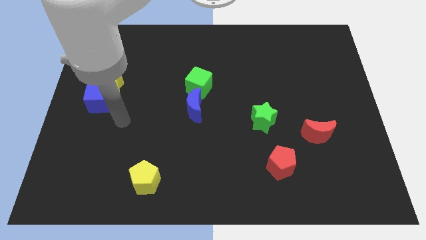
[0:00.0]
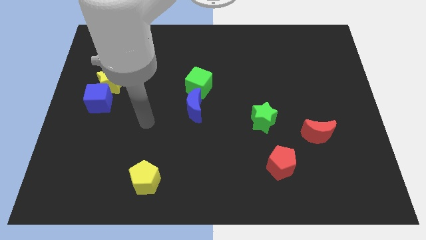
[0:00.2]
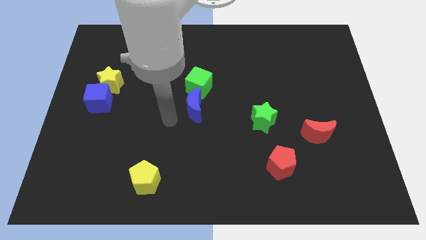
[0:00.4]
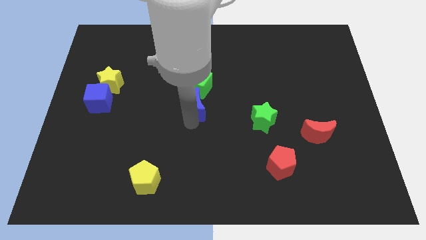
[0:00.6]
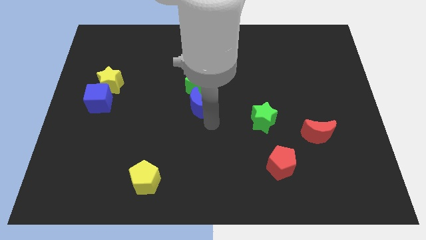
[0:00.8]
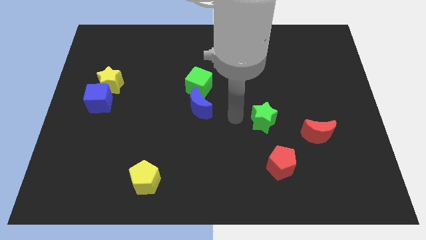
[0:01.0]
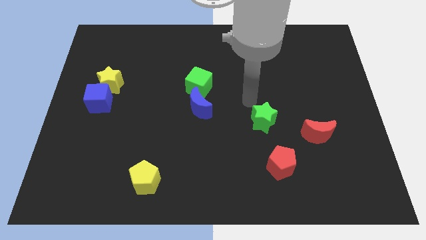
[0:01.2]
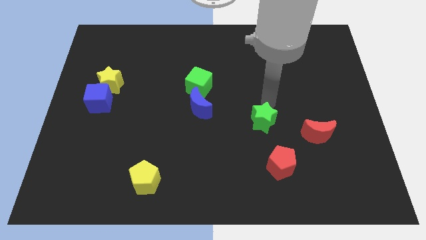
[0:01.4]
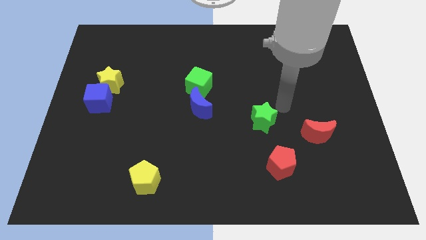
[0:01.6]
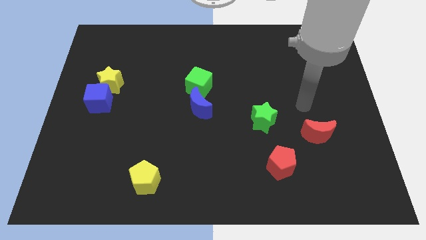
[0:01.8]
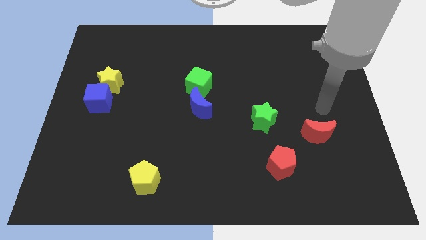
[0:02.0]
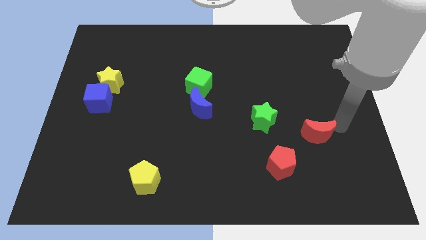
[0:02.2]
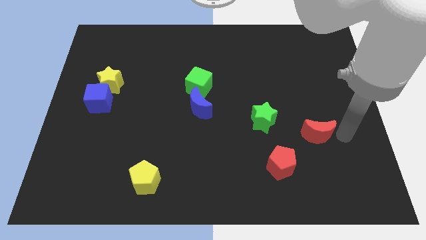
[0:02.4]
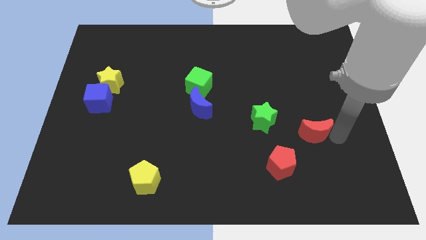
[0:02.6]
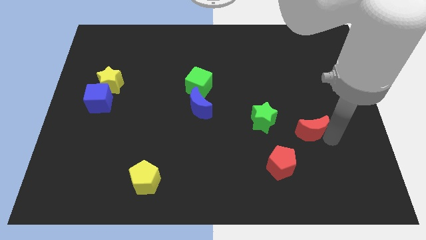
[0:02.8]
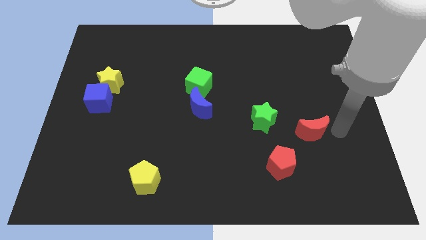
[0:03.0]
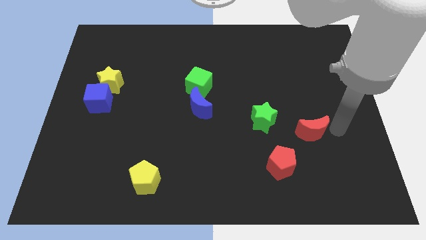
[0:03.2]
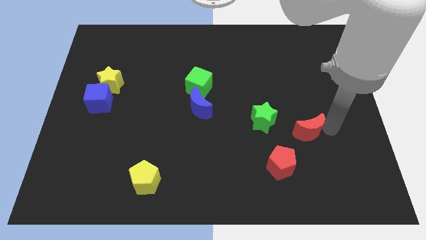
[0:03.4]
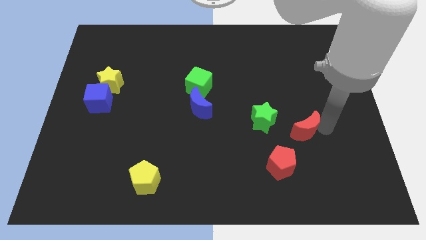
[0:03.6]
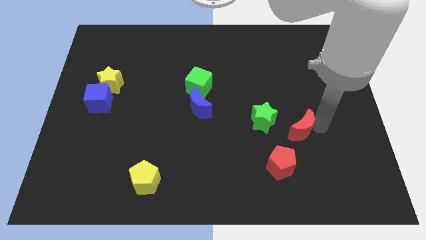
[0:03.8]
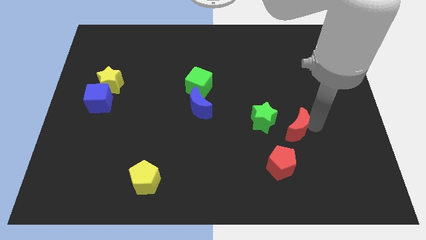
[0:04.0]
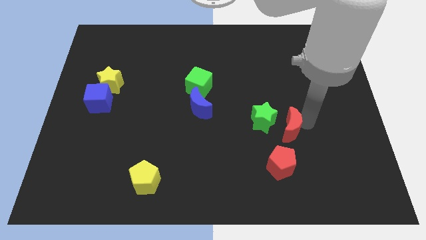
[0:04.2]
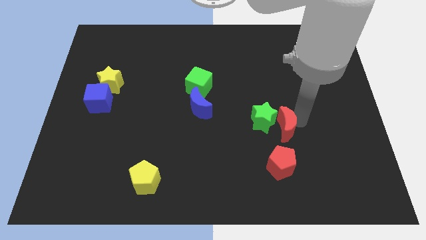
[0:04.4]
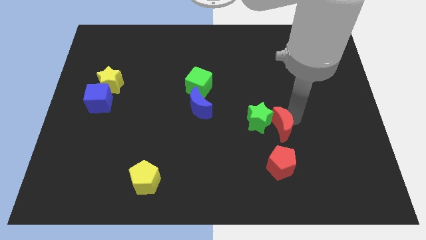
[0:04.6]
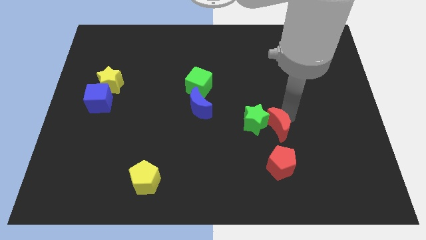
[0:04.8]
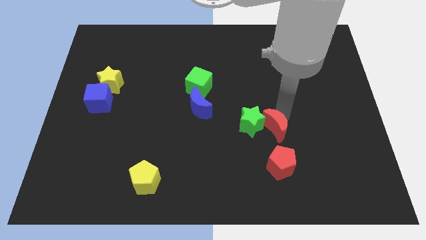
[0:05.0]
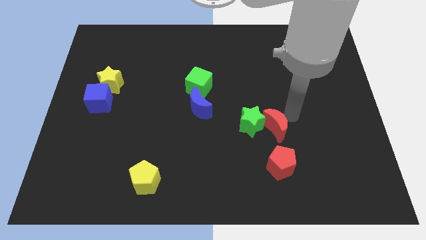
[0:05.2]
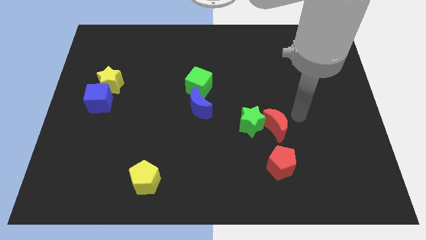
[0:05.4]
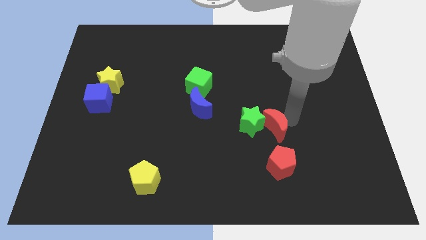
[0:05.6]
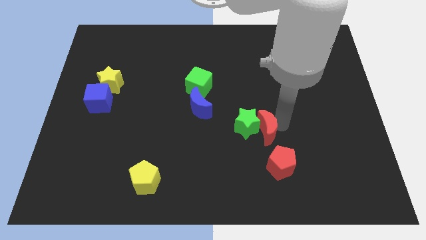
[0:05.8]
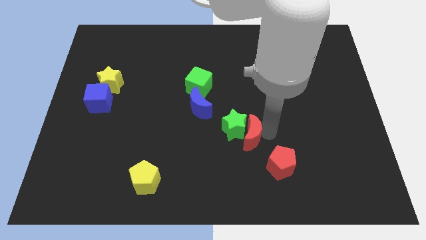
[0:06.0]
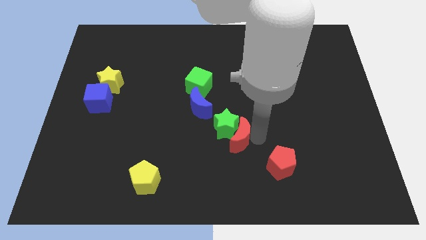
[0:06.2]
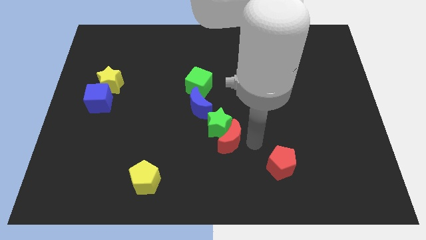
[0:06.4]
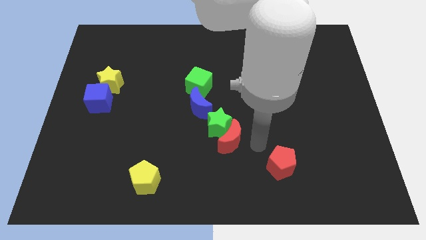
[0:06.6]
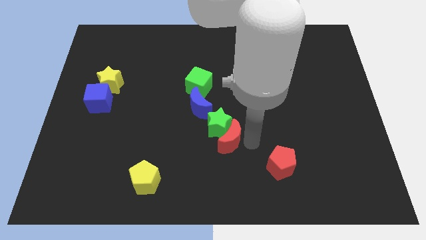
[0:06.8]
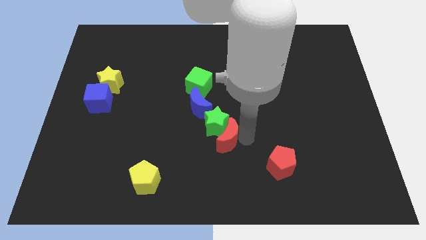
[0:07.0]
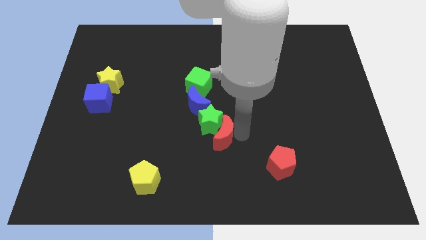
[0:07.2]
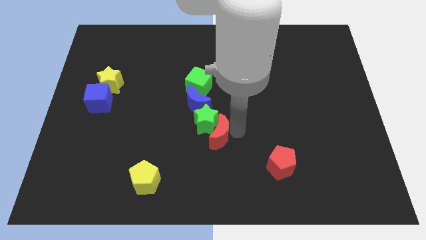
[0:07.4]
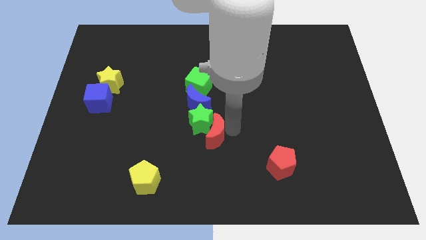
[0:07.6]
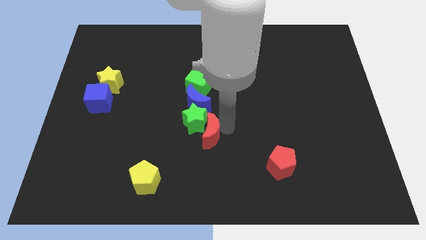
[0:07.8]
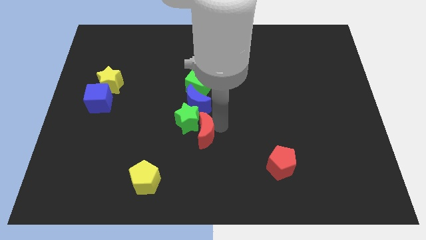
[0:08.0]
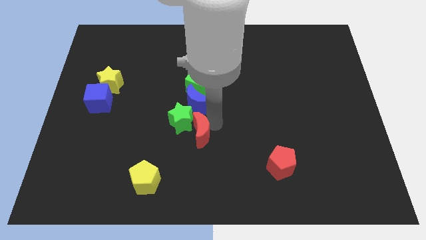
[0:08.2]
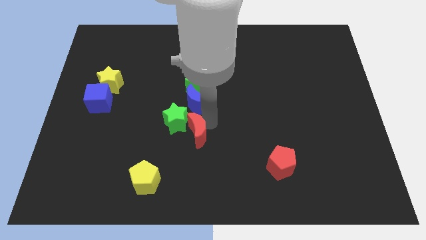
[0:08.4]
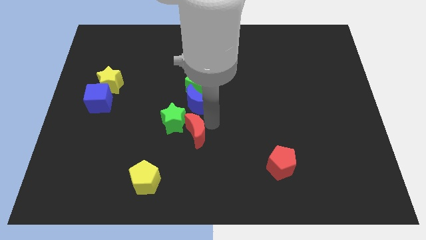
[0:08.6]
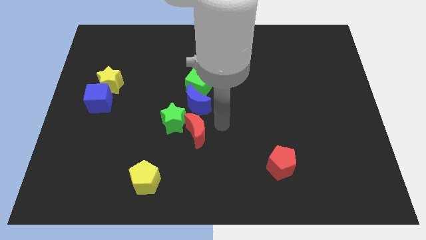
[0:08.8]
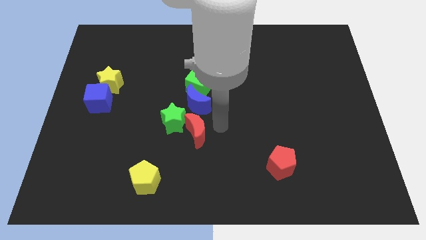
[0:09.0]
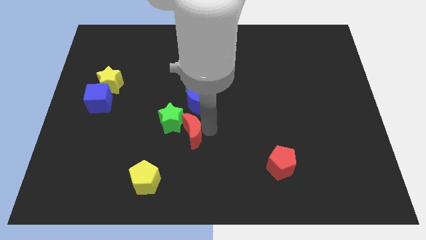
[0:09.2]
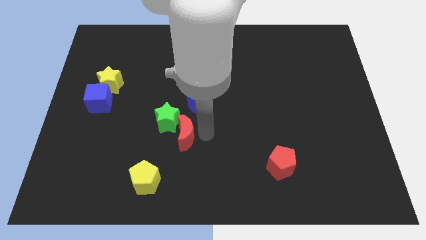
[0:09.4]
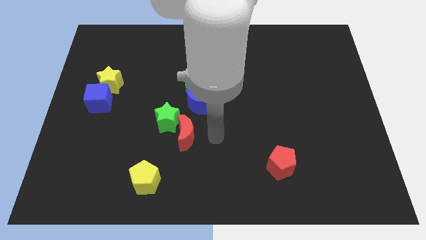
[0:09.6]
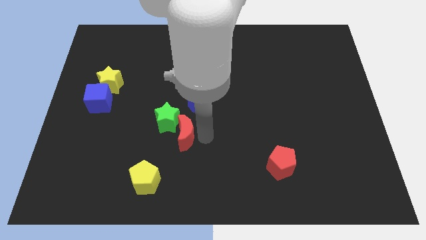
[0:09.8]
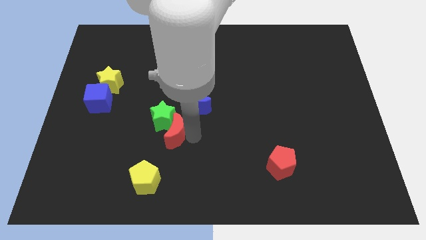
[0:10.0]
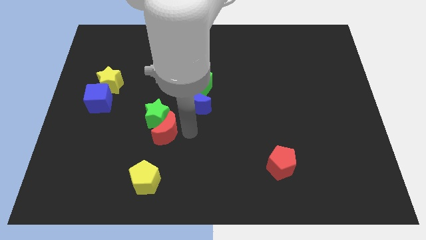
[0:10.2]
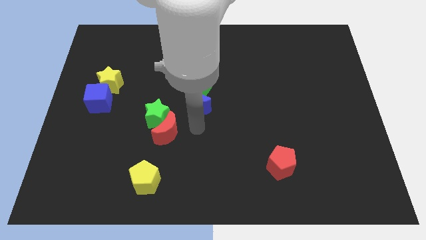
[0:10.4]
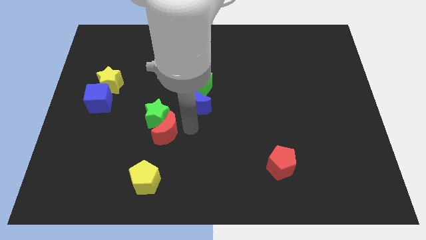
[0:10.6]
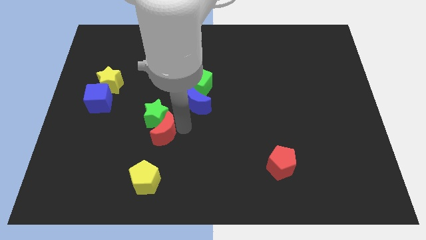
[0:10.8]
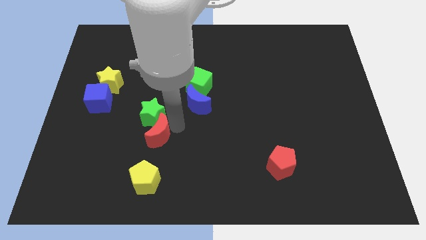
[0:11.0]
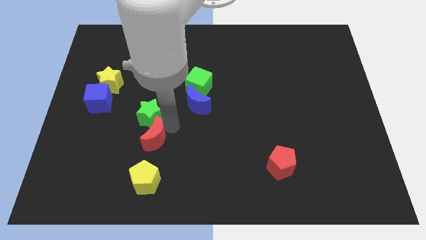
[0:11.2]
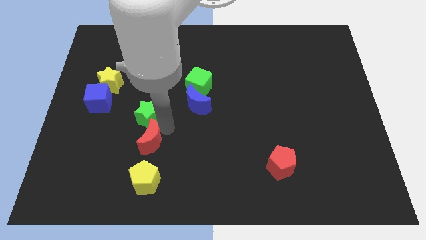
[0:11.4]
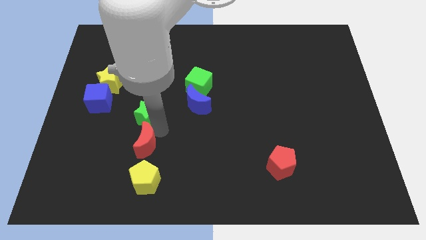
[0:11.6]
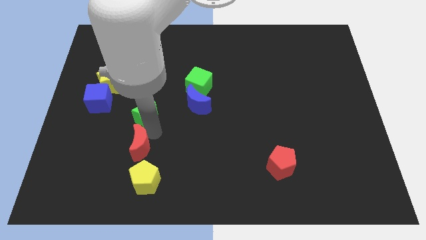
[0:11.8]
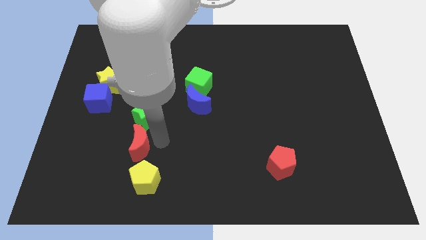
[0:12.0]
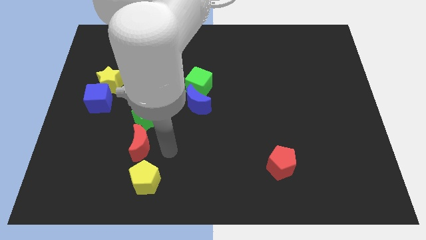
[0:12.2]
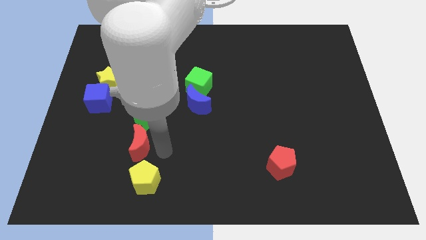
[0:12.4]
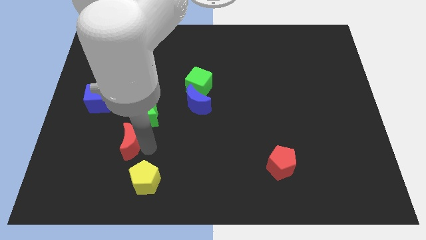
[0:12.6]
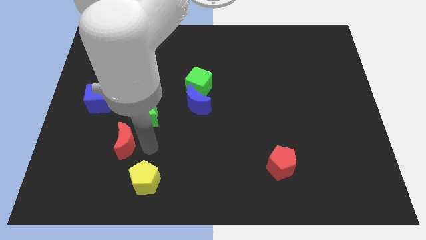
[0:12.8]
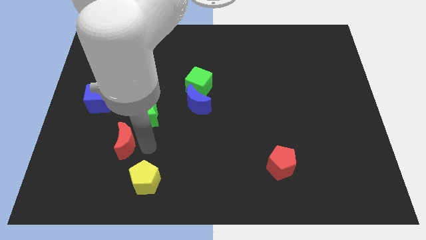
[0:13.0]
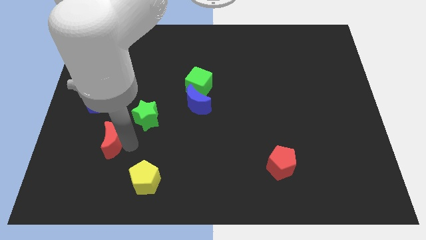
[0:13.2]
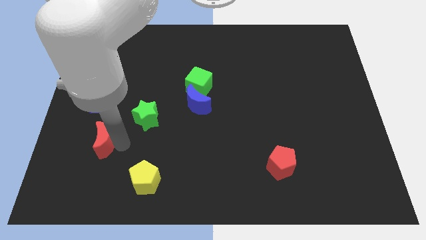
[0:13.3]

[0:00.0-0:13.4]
slide the red moon to the bottom side of the blue cube

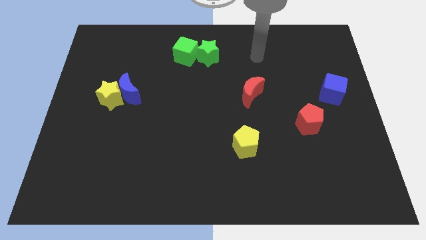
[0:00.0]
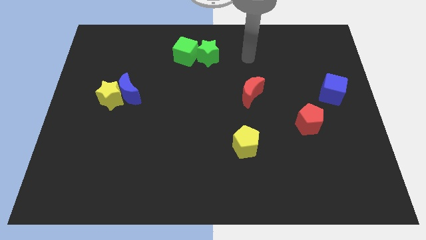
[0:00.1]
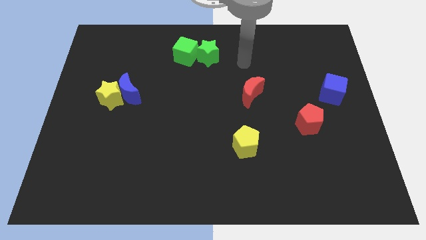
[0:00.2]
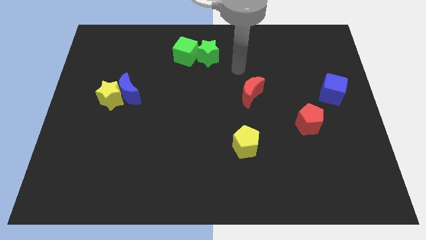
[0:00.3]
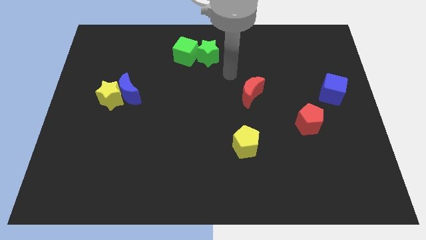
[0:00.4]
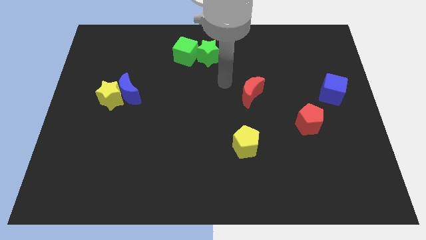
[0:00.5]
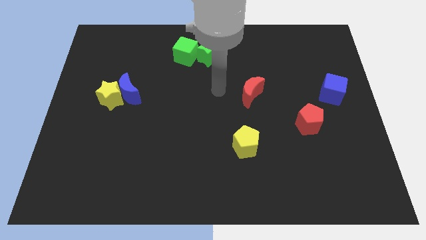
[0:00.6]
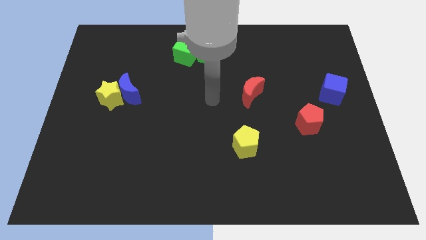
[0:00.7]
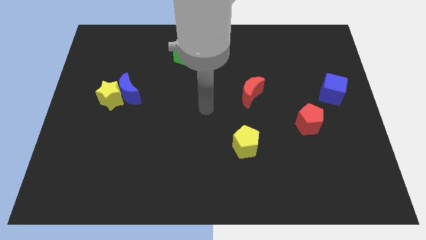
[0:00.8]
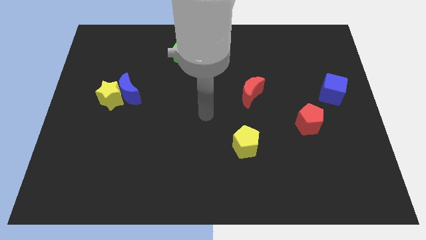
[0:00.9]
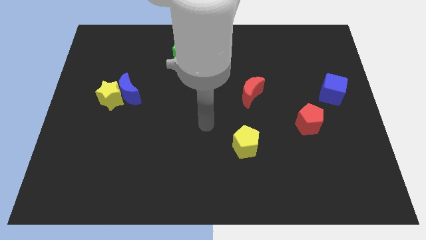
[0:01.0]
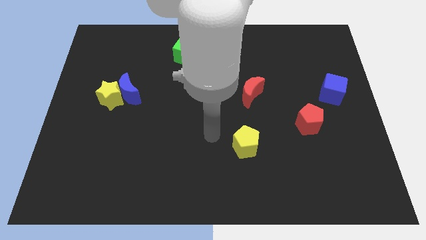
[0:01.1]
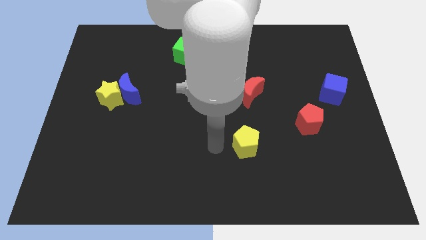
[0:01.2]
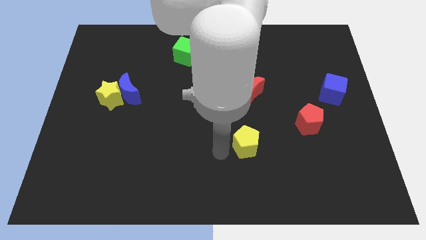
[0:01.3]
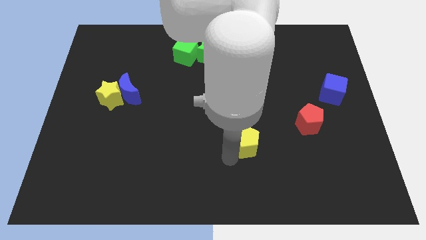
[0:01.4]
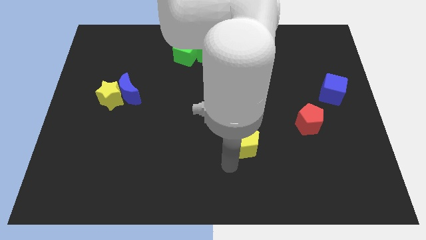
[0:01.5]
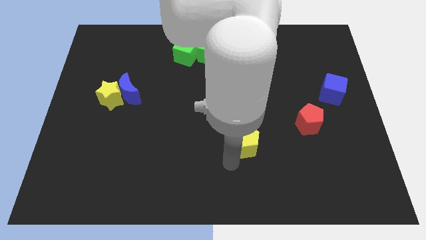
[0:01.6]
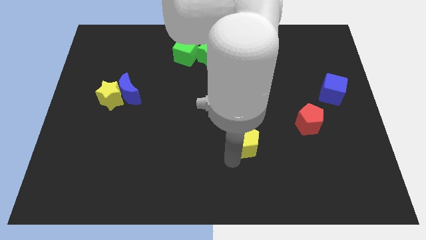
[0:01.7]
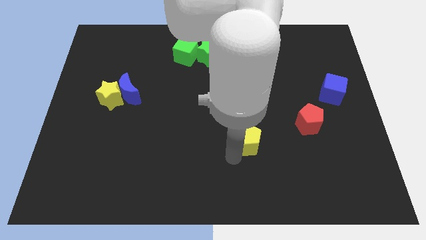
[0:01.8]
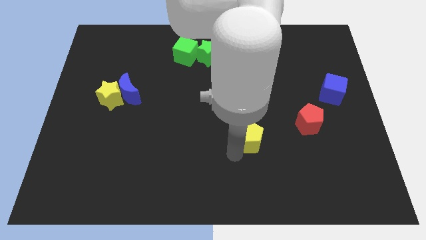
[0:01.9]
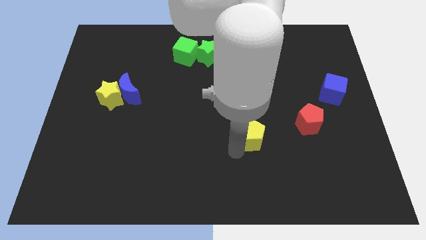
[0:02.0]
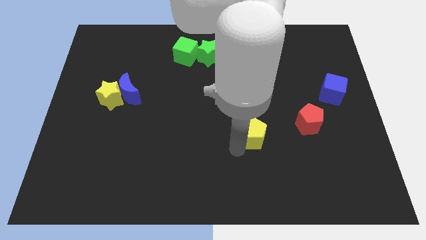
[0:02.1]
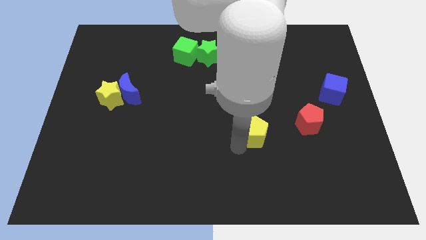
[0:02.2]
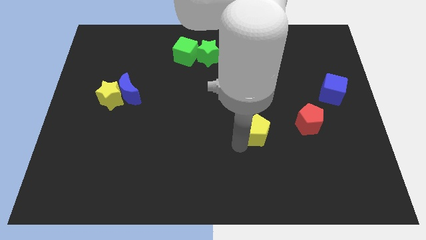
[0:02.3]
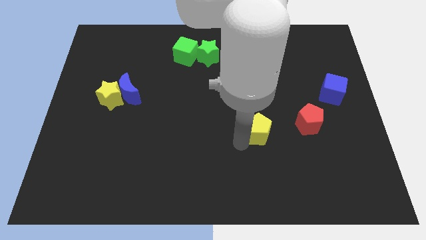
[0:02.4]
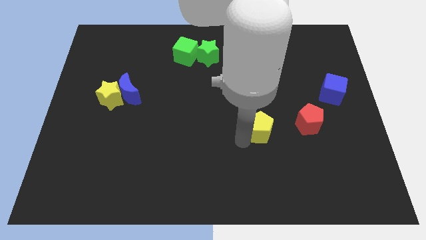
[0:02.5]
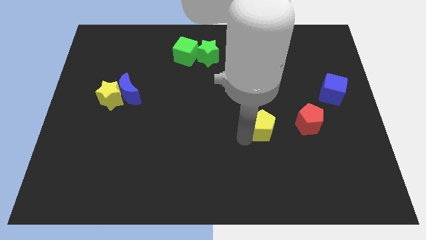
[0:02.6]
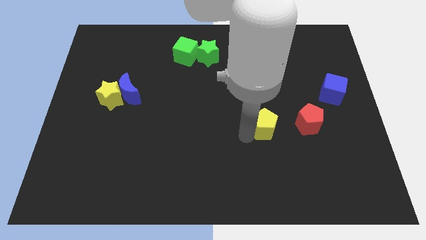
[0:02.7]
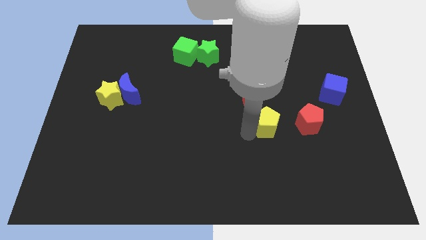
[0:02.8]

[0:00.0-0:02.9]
push the yellow pentagon to the bottom right of the red moon
